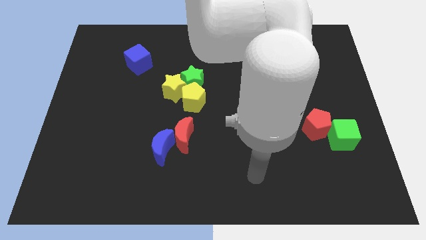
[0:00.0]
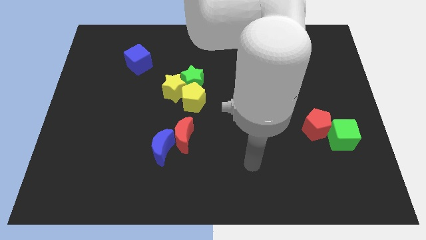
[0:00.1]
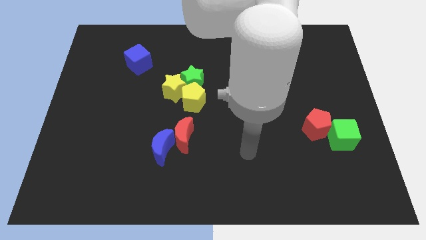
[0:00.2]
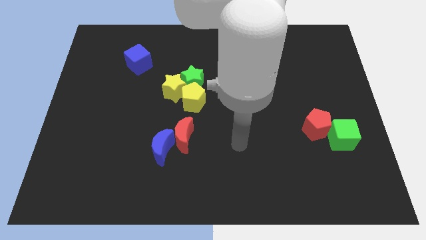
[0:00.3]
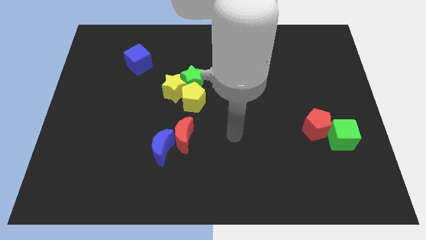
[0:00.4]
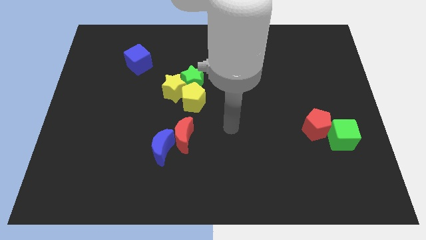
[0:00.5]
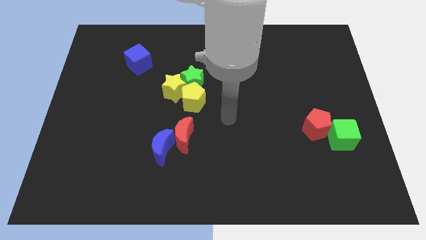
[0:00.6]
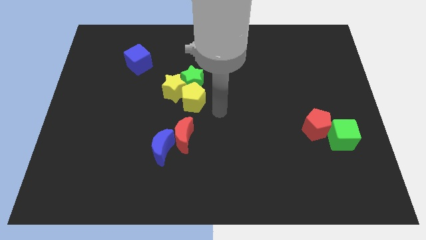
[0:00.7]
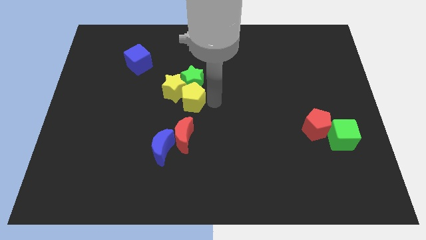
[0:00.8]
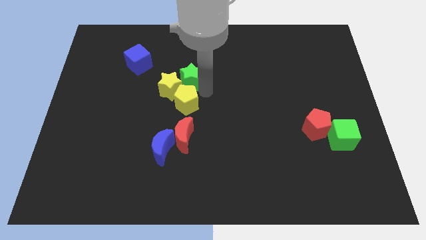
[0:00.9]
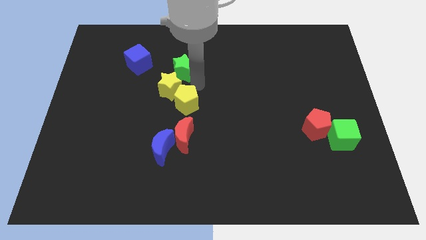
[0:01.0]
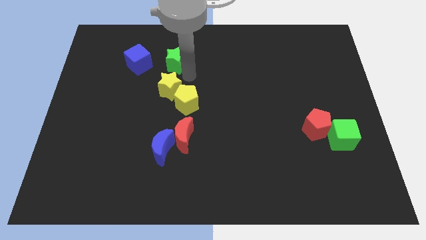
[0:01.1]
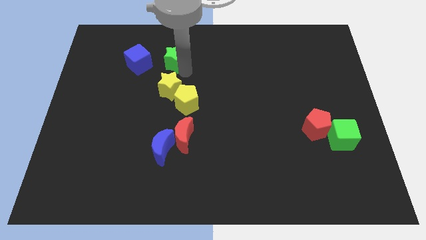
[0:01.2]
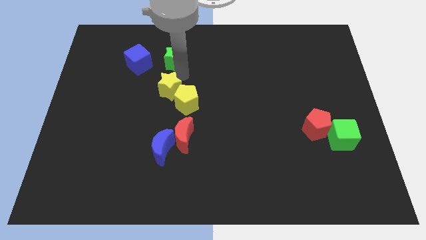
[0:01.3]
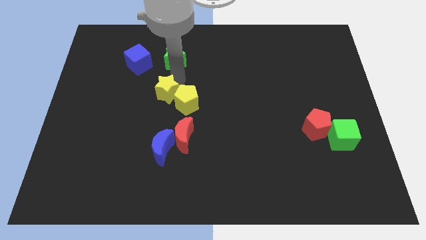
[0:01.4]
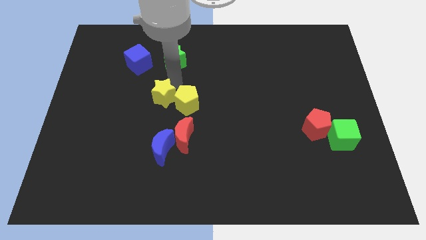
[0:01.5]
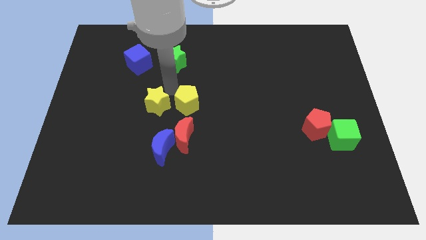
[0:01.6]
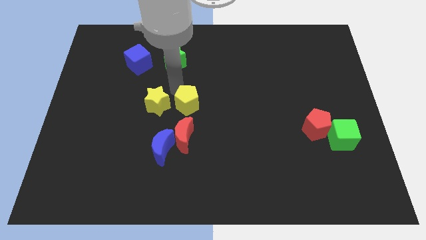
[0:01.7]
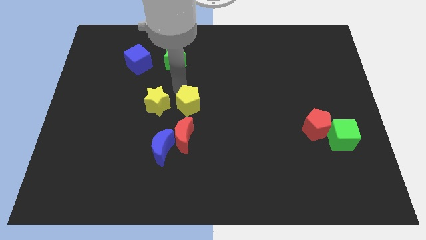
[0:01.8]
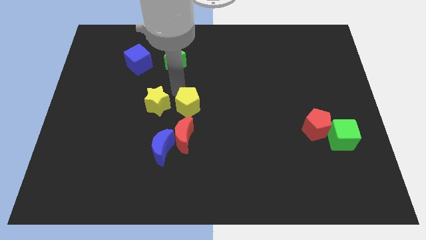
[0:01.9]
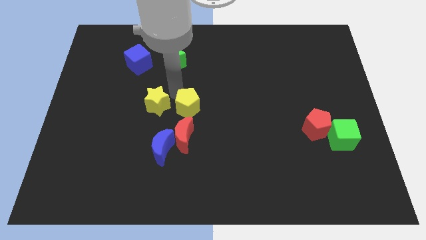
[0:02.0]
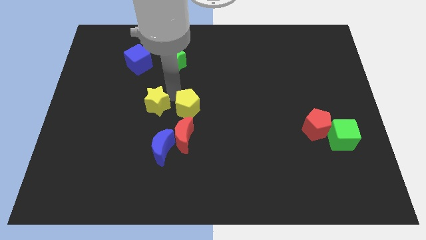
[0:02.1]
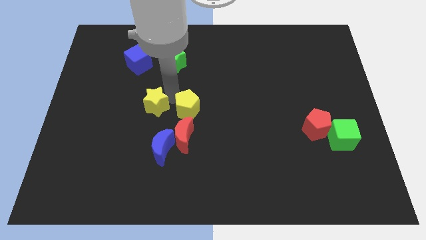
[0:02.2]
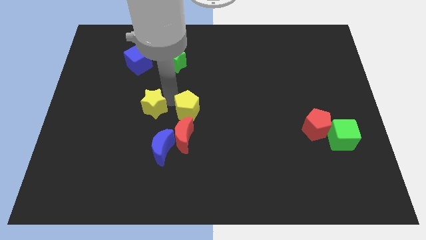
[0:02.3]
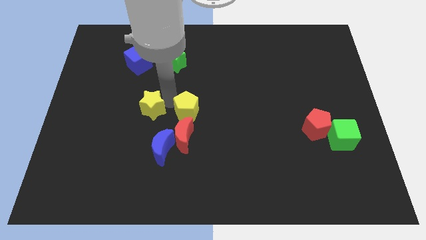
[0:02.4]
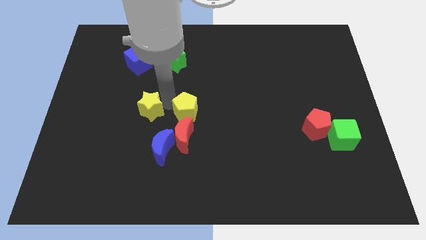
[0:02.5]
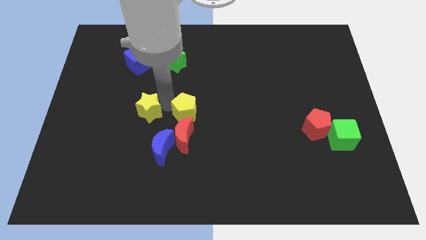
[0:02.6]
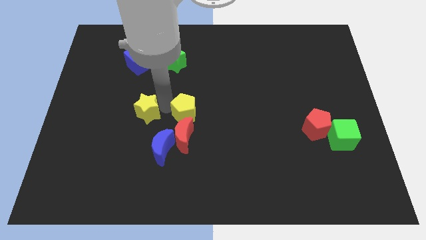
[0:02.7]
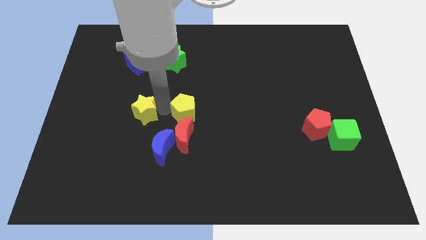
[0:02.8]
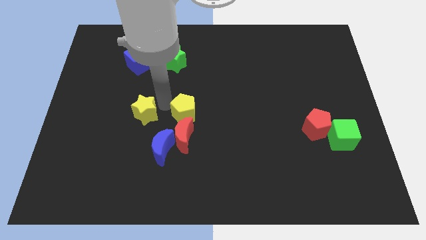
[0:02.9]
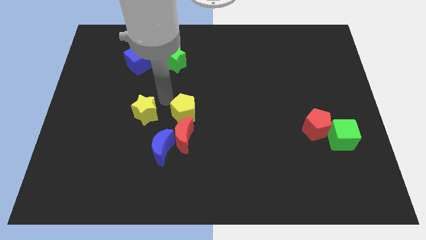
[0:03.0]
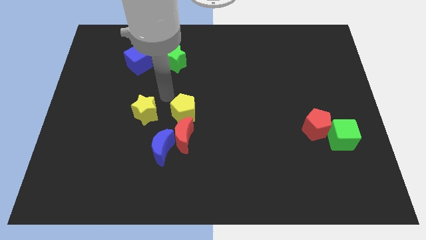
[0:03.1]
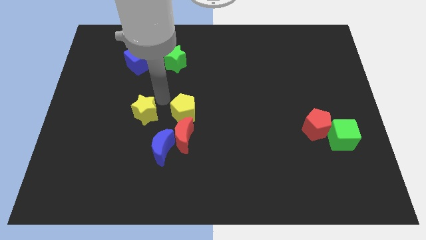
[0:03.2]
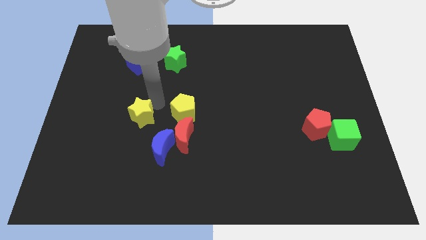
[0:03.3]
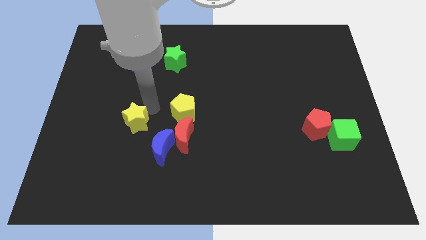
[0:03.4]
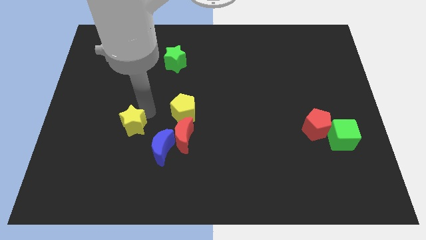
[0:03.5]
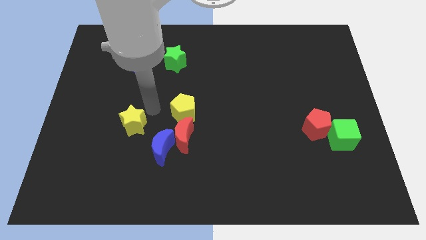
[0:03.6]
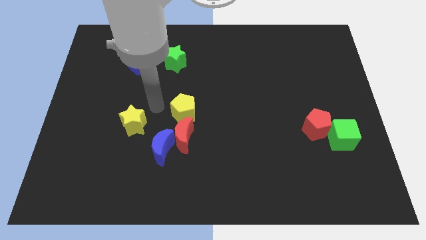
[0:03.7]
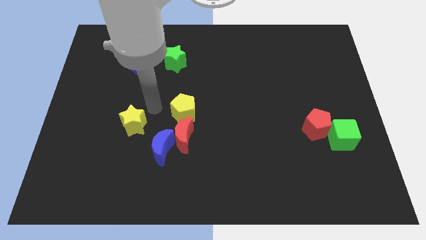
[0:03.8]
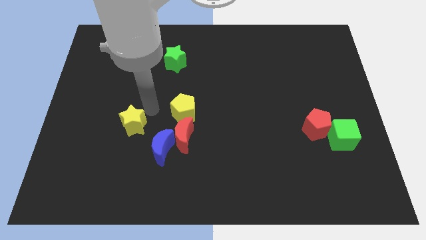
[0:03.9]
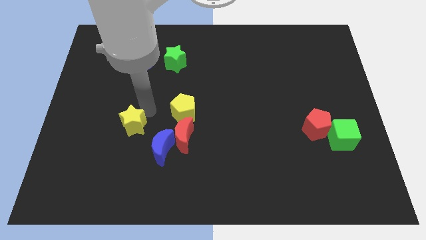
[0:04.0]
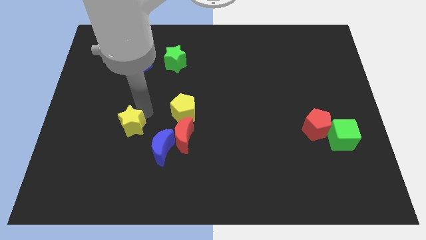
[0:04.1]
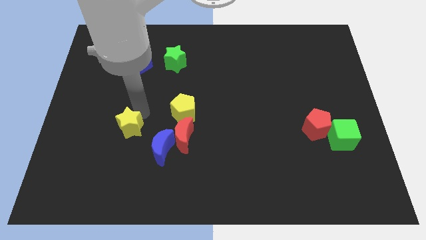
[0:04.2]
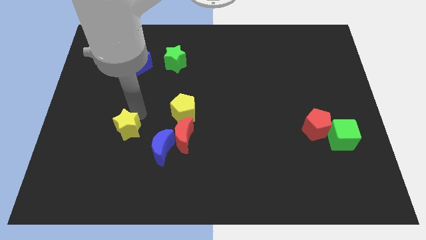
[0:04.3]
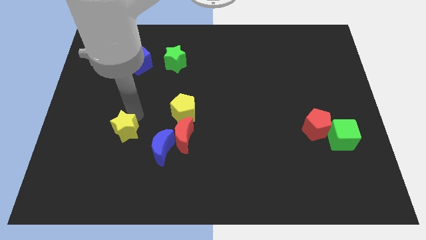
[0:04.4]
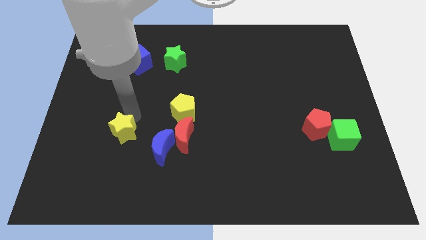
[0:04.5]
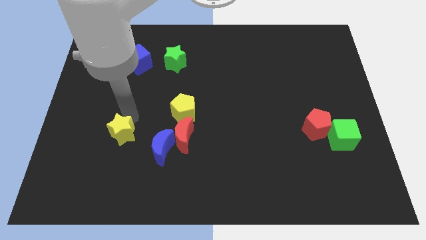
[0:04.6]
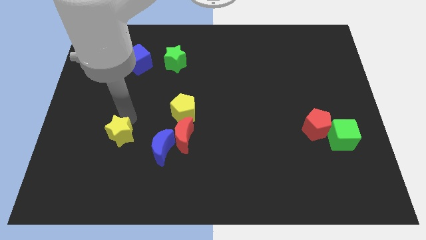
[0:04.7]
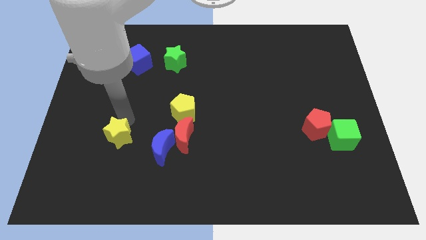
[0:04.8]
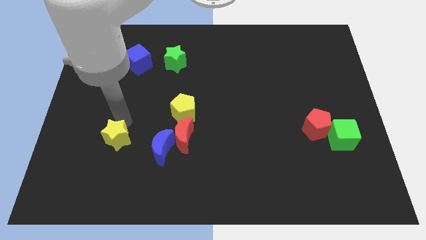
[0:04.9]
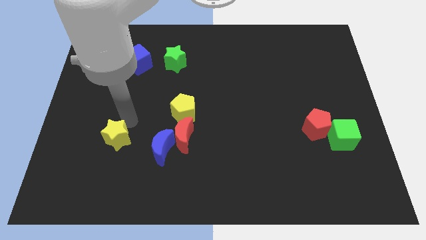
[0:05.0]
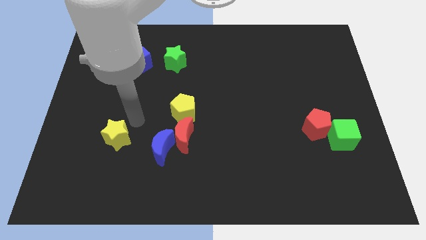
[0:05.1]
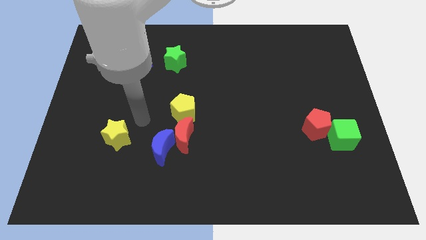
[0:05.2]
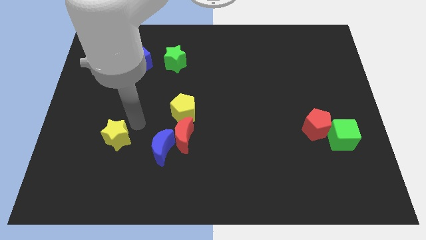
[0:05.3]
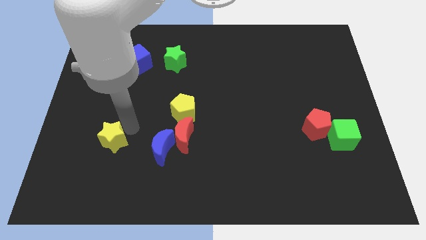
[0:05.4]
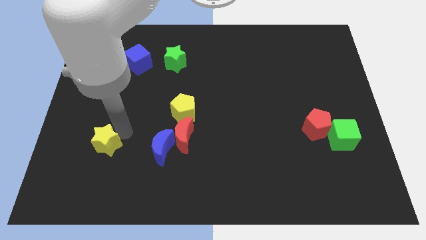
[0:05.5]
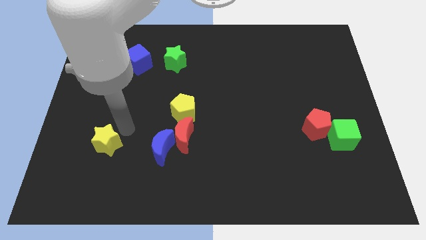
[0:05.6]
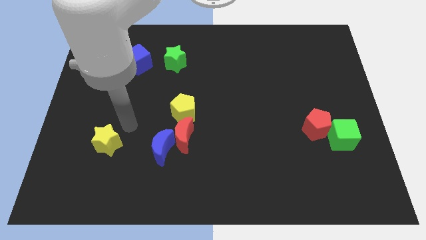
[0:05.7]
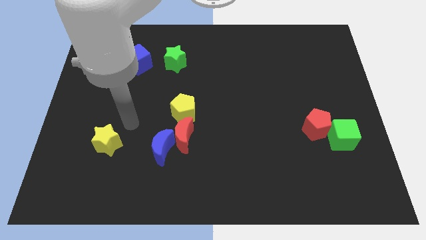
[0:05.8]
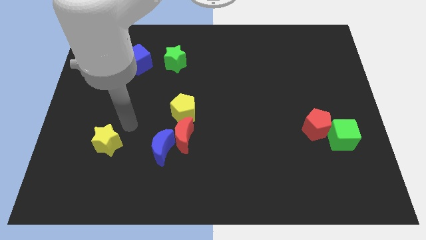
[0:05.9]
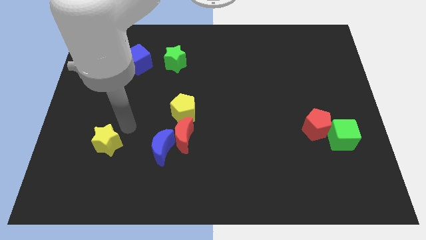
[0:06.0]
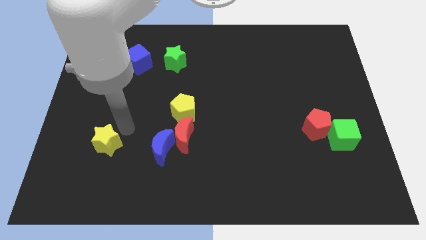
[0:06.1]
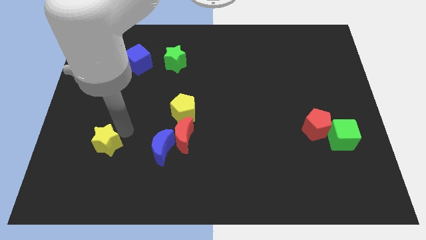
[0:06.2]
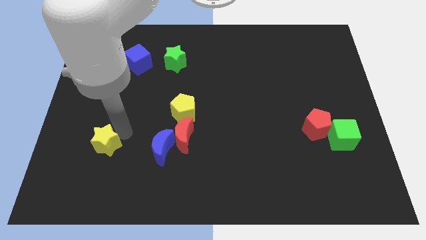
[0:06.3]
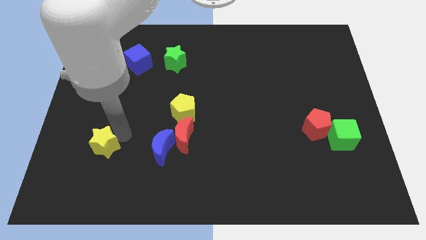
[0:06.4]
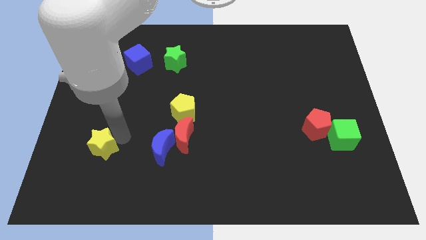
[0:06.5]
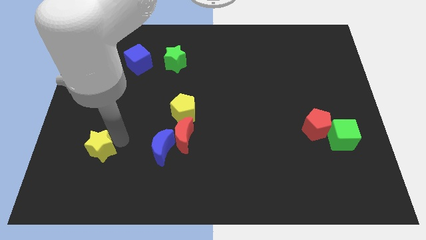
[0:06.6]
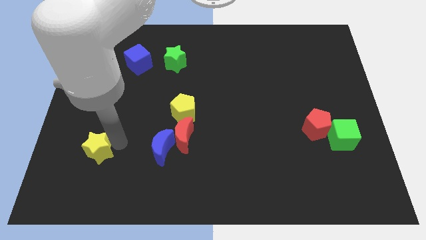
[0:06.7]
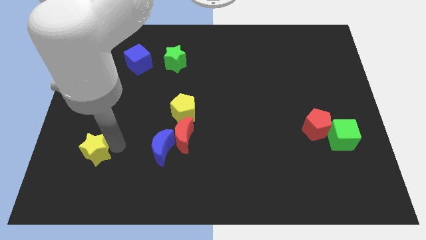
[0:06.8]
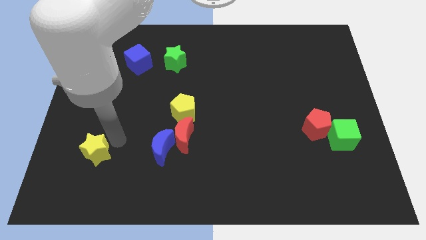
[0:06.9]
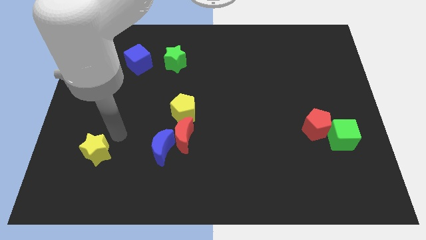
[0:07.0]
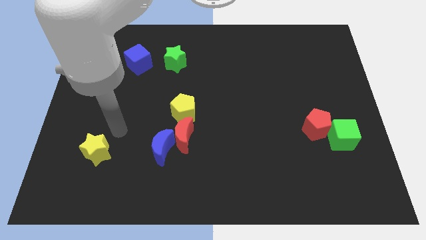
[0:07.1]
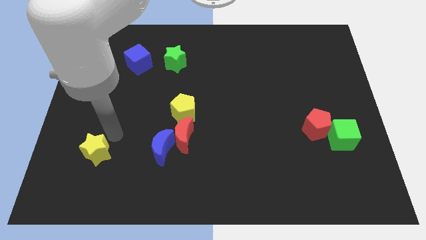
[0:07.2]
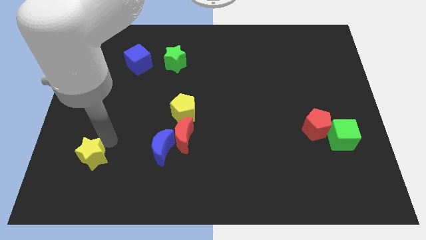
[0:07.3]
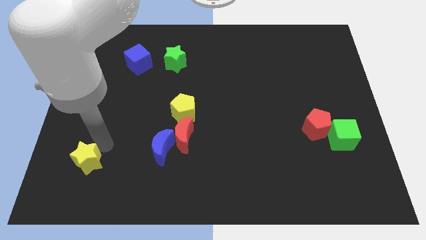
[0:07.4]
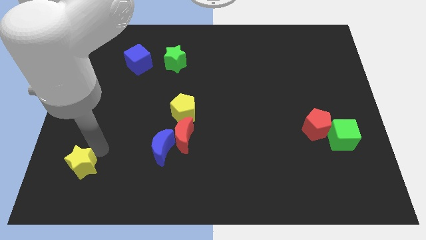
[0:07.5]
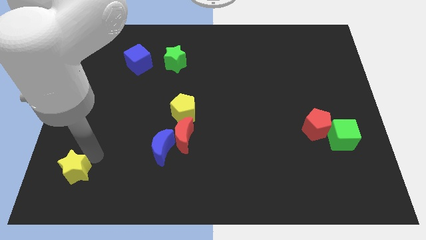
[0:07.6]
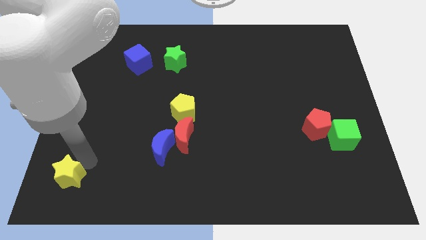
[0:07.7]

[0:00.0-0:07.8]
slide the yellow star to the bottom left
